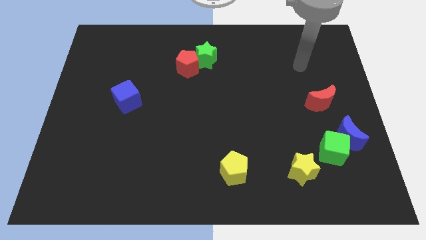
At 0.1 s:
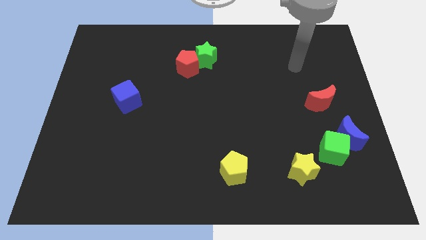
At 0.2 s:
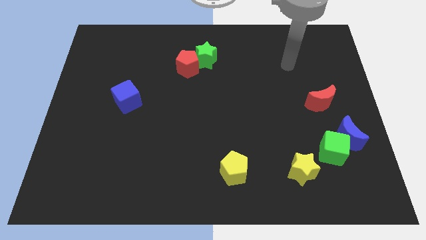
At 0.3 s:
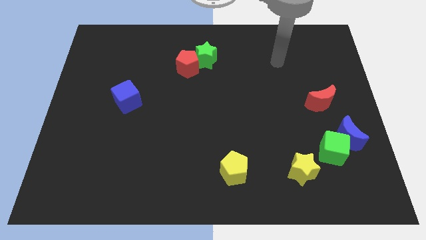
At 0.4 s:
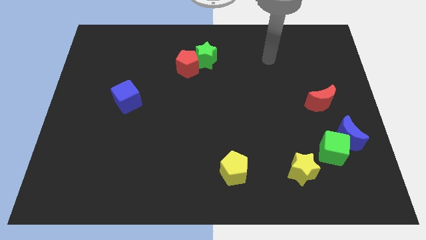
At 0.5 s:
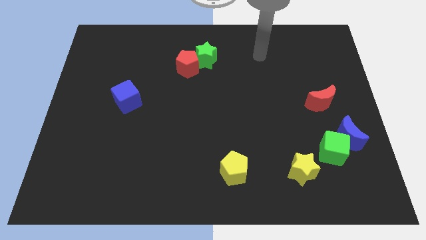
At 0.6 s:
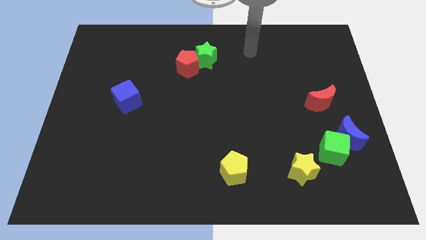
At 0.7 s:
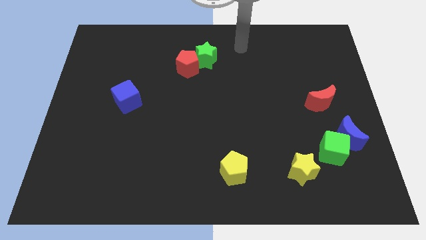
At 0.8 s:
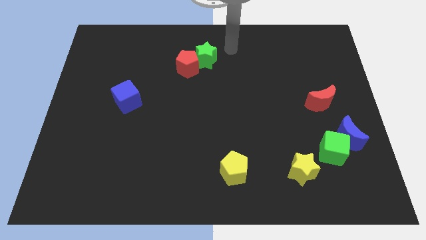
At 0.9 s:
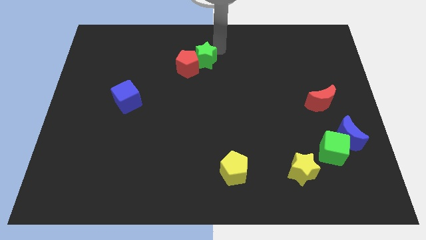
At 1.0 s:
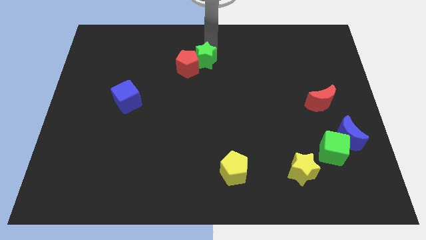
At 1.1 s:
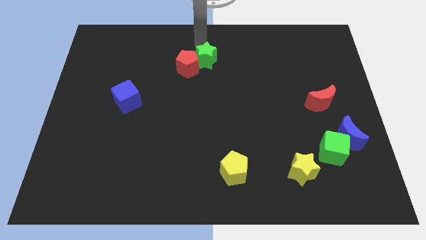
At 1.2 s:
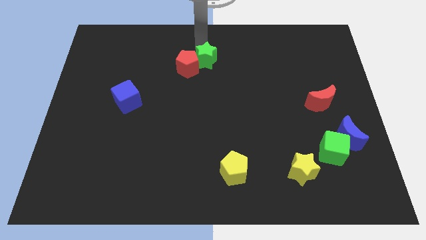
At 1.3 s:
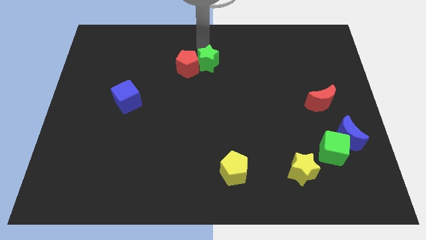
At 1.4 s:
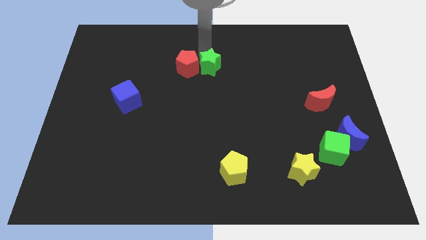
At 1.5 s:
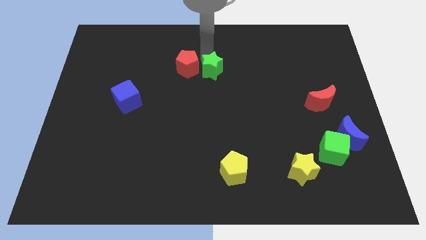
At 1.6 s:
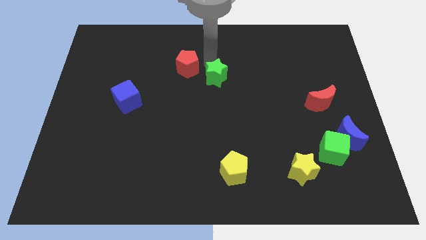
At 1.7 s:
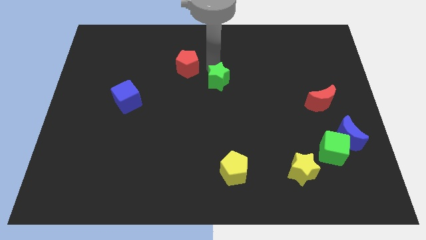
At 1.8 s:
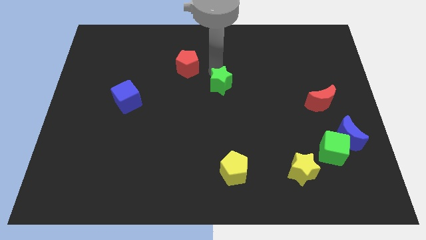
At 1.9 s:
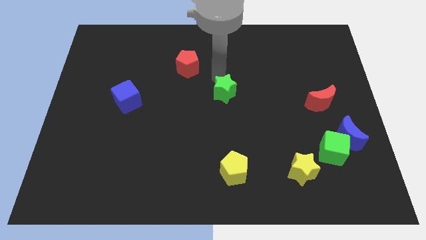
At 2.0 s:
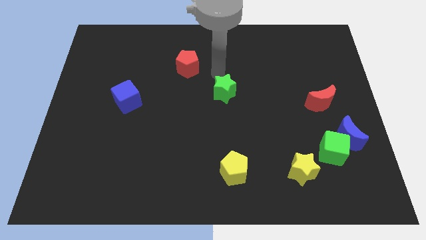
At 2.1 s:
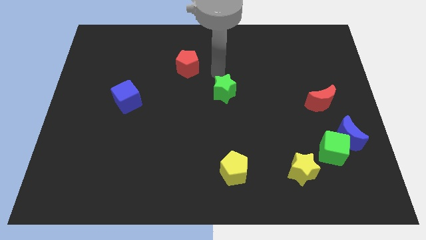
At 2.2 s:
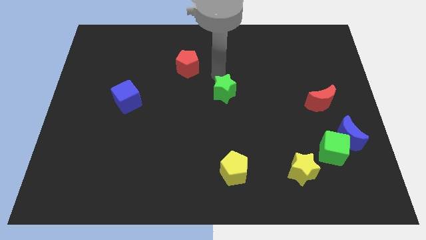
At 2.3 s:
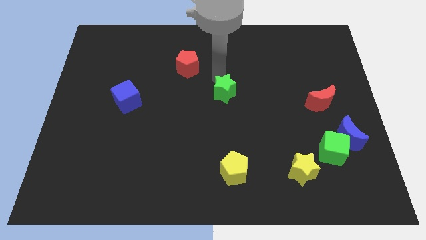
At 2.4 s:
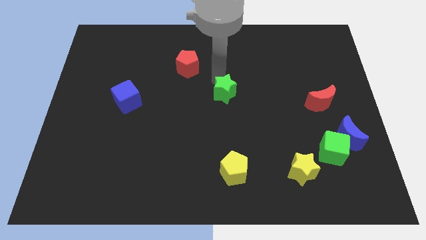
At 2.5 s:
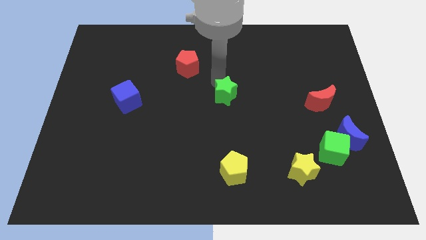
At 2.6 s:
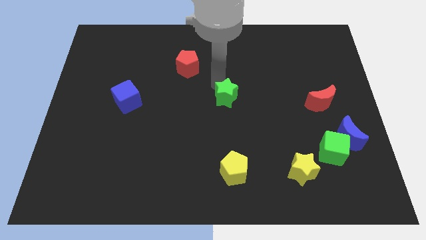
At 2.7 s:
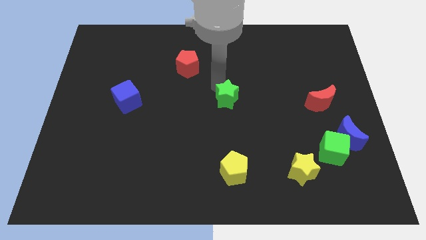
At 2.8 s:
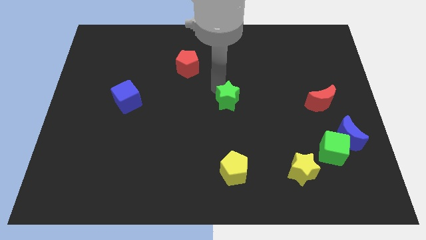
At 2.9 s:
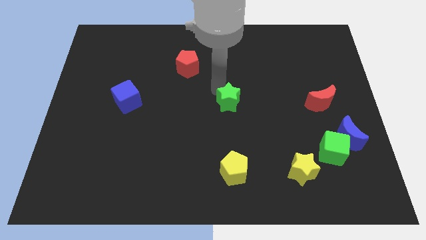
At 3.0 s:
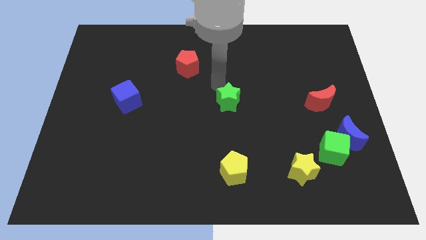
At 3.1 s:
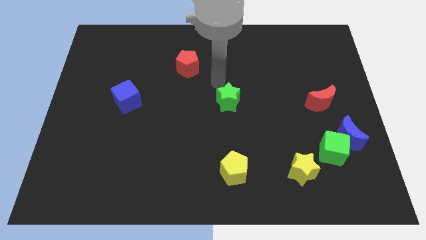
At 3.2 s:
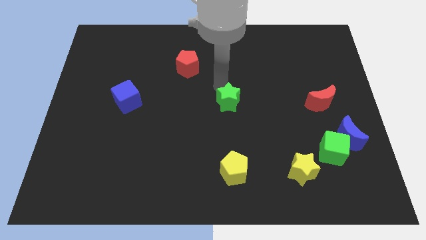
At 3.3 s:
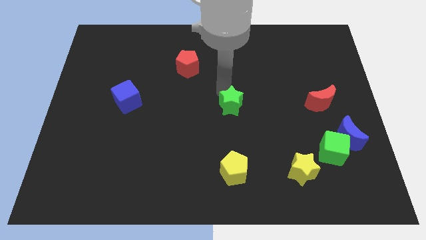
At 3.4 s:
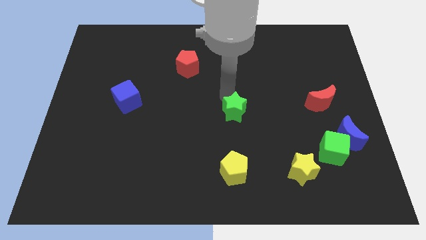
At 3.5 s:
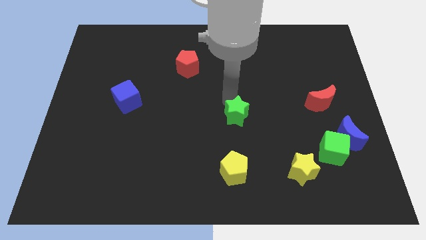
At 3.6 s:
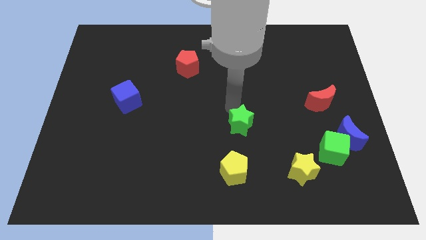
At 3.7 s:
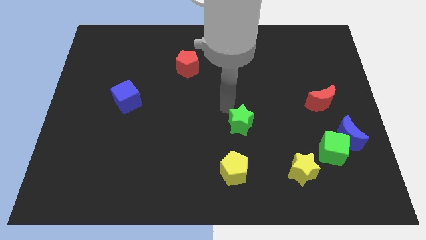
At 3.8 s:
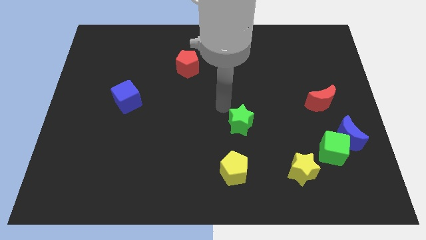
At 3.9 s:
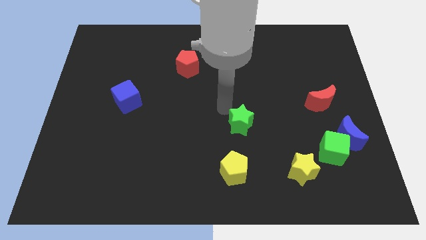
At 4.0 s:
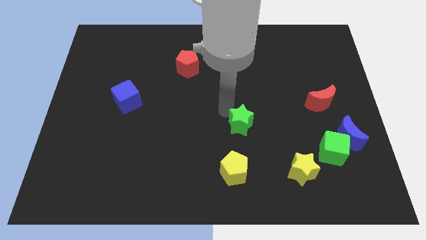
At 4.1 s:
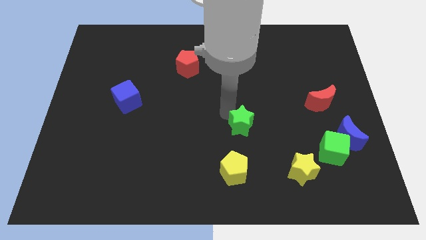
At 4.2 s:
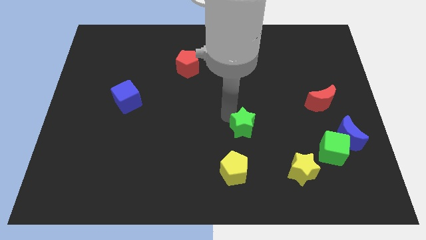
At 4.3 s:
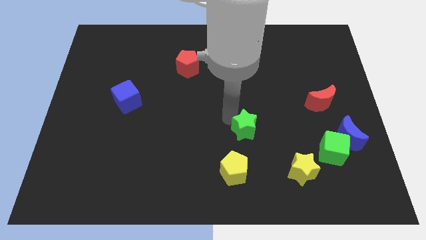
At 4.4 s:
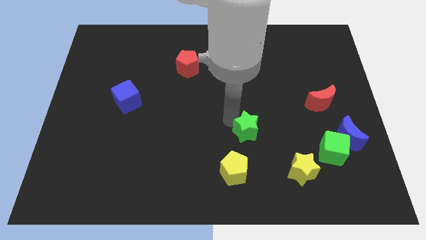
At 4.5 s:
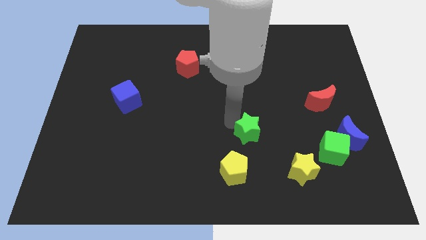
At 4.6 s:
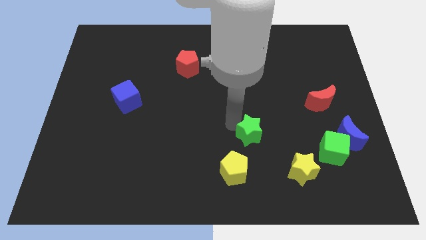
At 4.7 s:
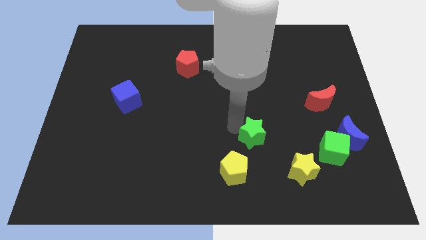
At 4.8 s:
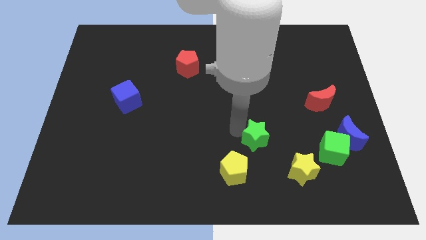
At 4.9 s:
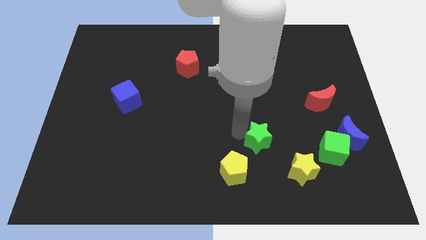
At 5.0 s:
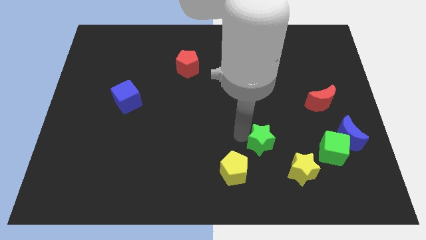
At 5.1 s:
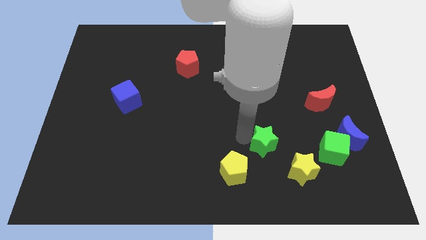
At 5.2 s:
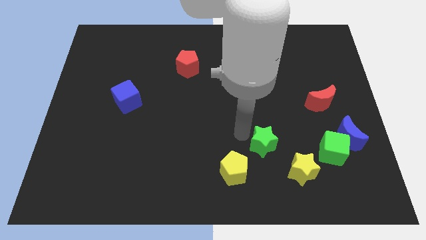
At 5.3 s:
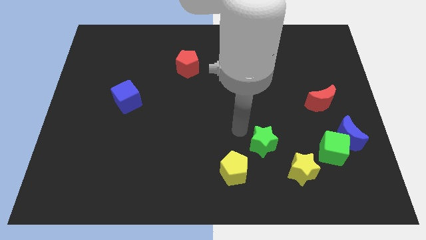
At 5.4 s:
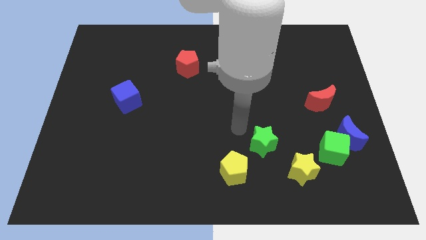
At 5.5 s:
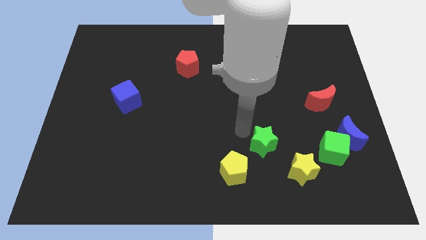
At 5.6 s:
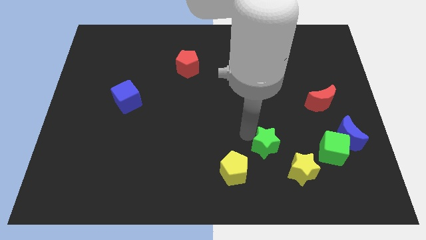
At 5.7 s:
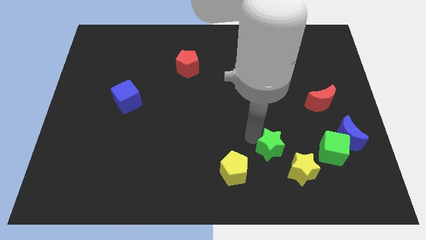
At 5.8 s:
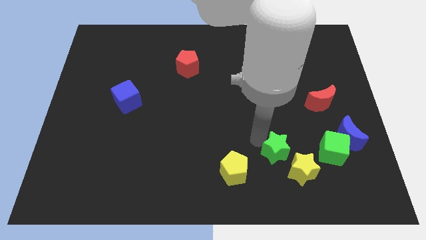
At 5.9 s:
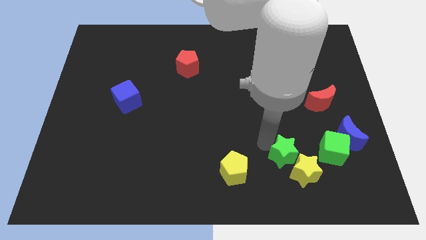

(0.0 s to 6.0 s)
slide the green star towards the yellow star

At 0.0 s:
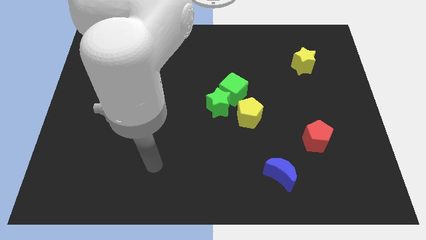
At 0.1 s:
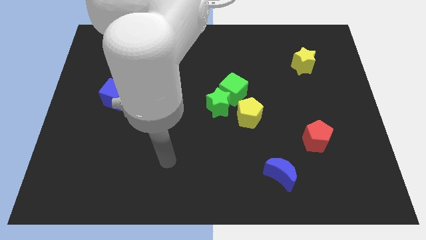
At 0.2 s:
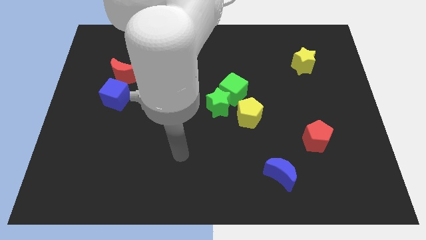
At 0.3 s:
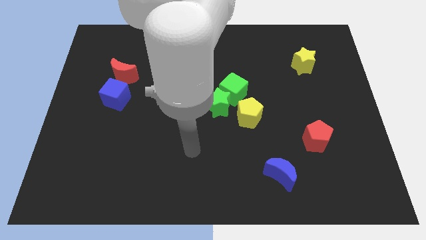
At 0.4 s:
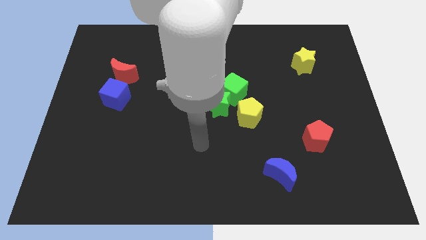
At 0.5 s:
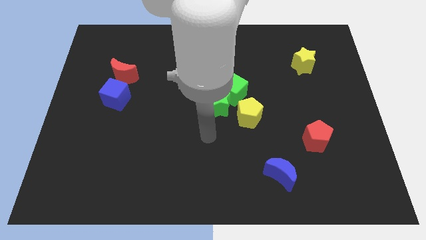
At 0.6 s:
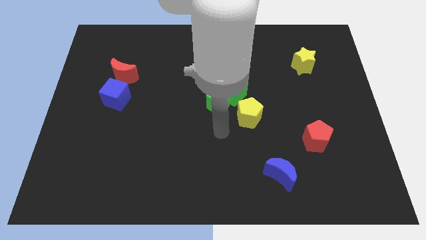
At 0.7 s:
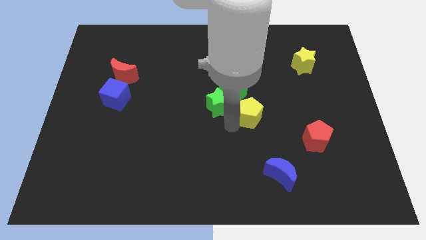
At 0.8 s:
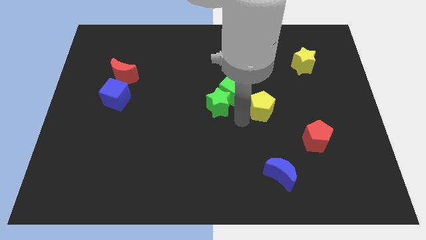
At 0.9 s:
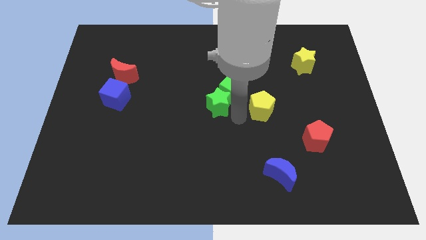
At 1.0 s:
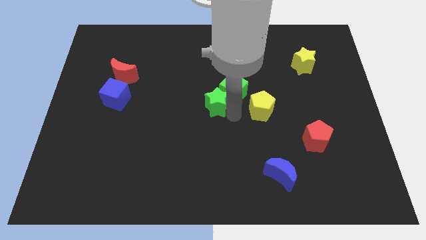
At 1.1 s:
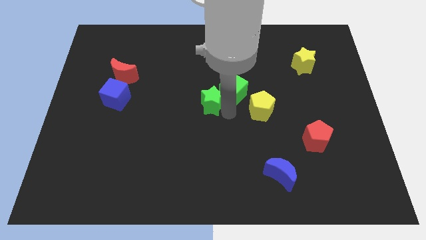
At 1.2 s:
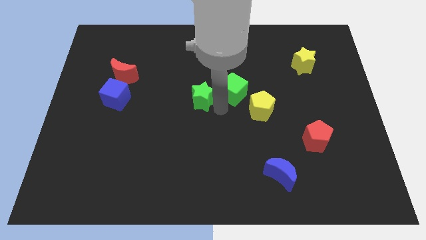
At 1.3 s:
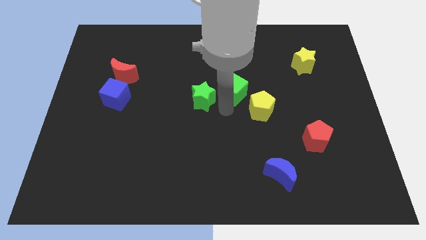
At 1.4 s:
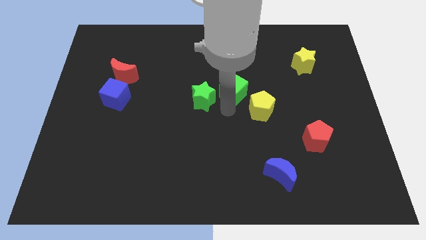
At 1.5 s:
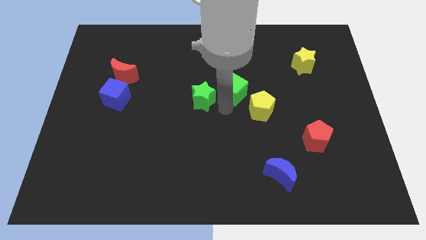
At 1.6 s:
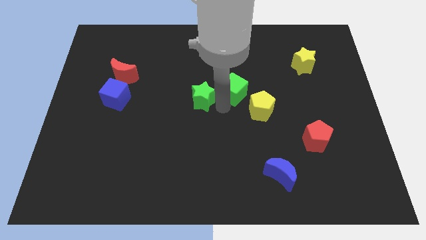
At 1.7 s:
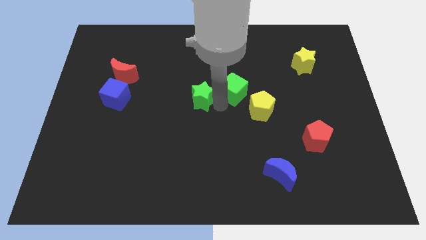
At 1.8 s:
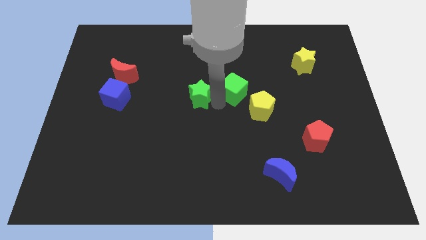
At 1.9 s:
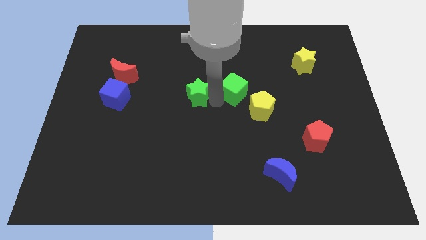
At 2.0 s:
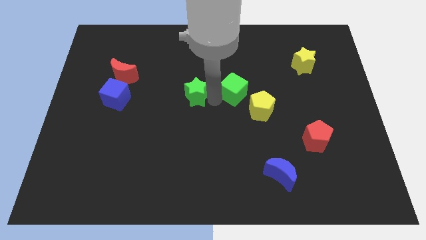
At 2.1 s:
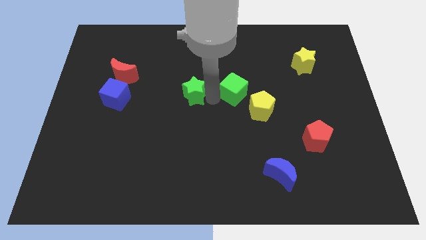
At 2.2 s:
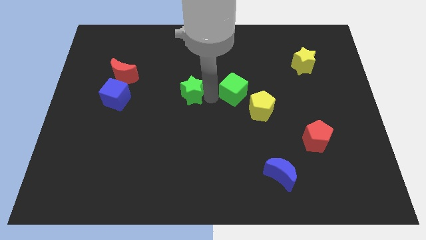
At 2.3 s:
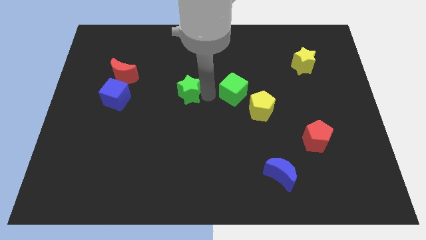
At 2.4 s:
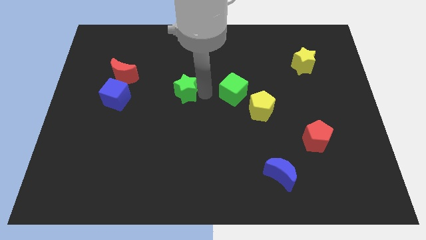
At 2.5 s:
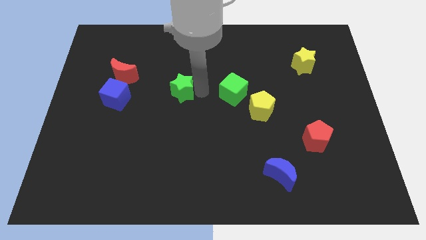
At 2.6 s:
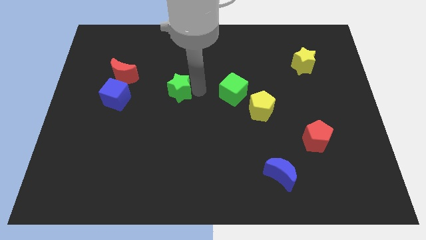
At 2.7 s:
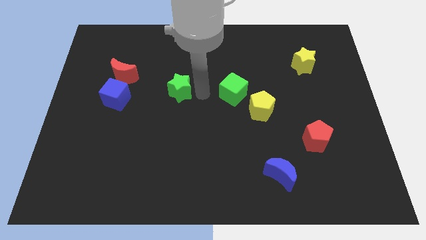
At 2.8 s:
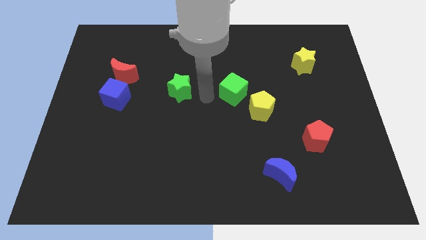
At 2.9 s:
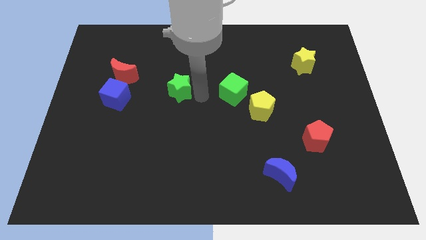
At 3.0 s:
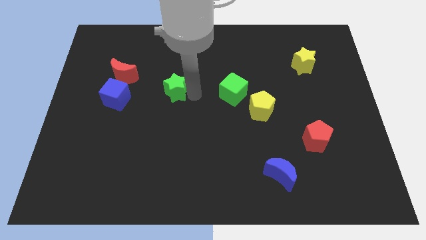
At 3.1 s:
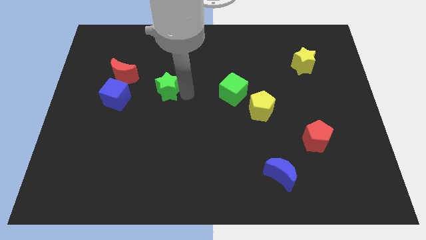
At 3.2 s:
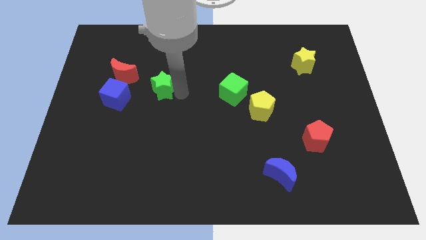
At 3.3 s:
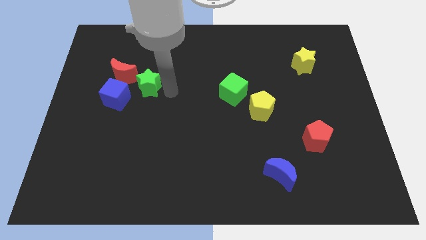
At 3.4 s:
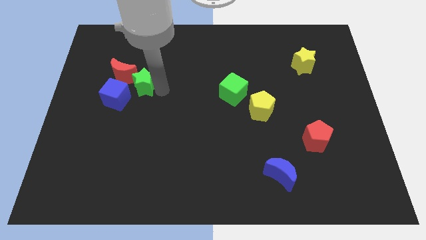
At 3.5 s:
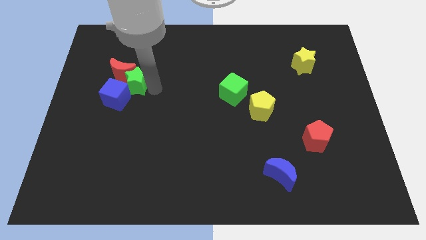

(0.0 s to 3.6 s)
put the green star next to the red moon
